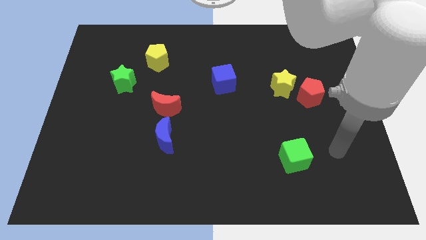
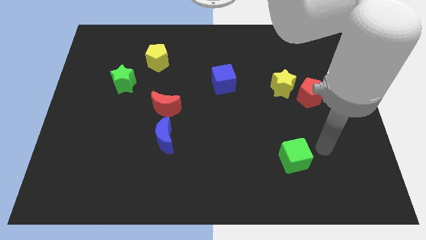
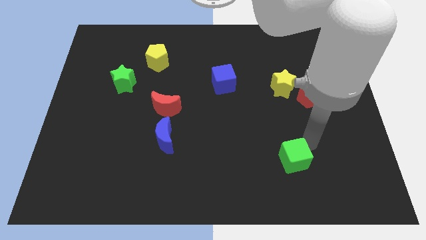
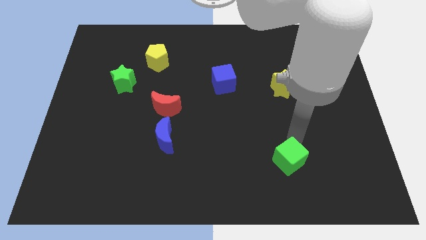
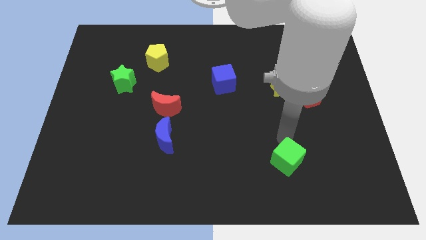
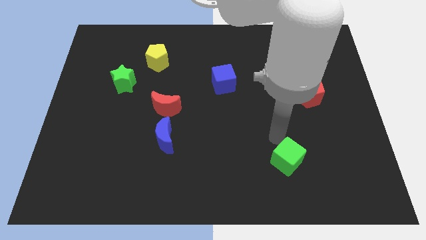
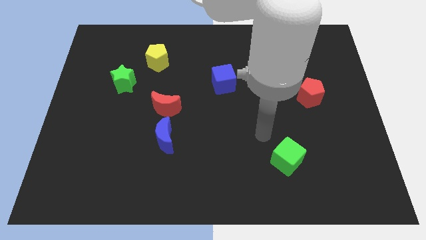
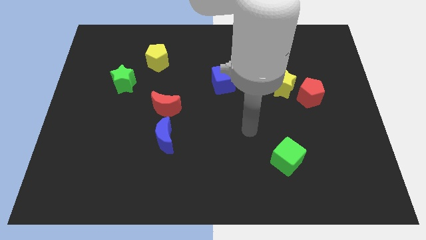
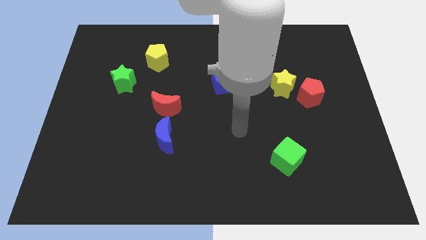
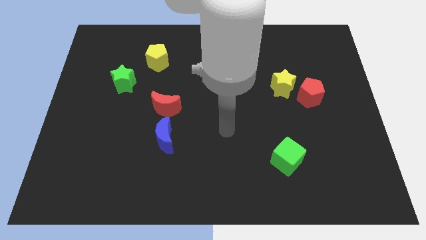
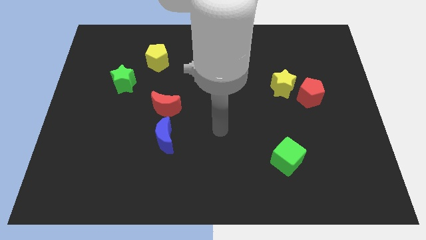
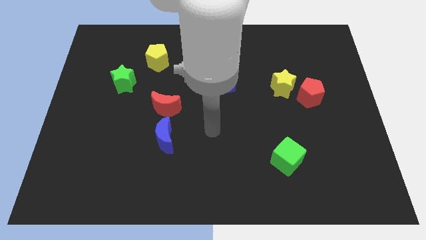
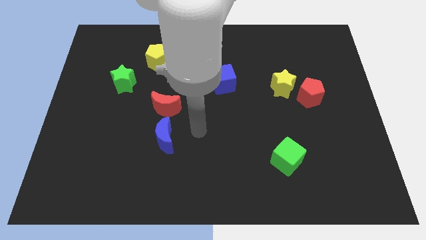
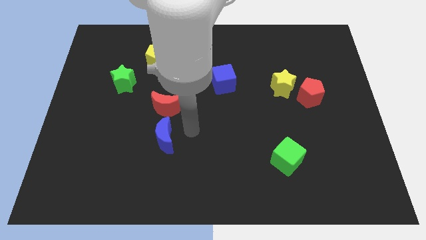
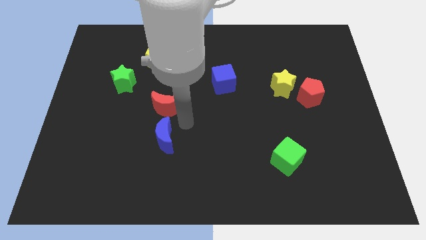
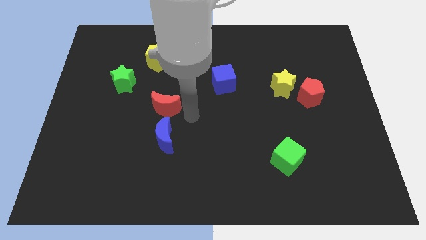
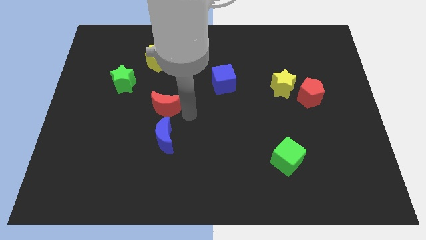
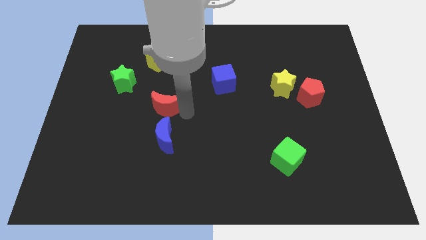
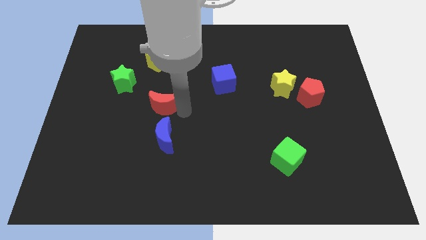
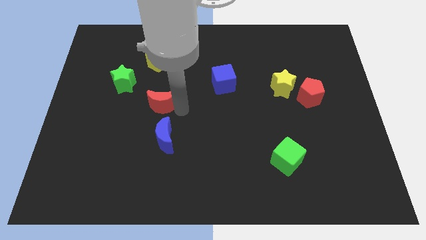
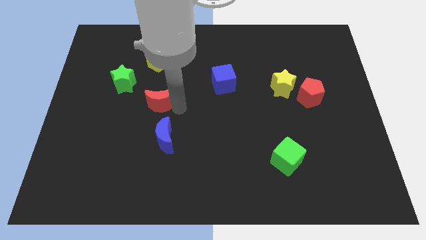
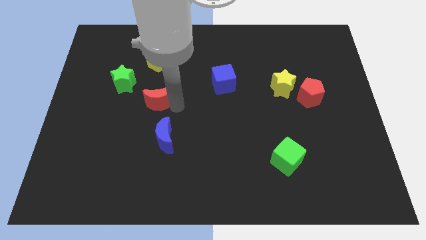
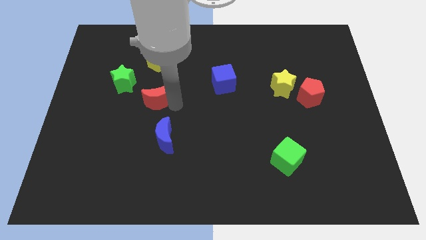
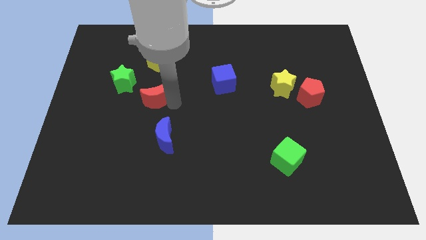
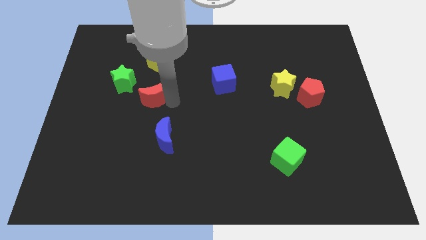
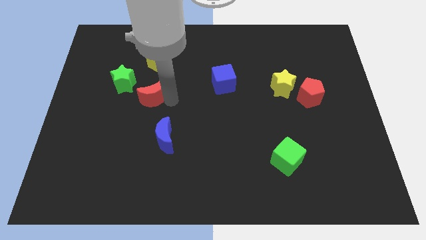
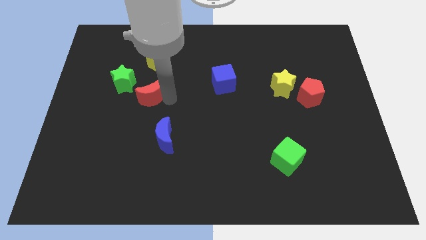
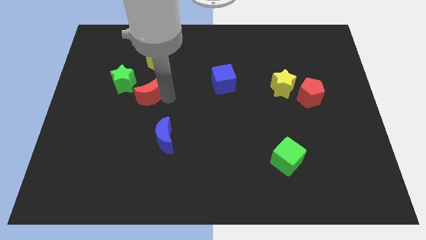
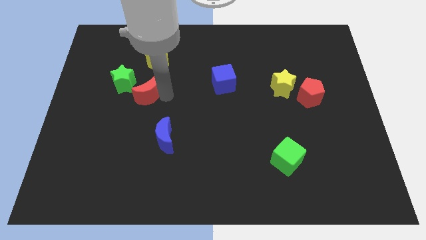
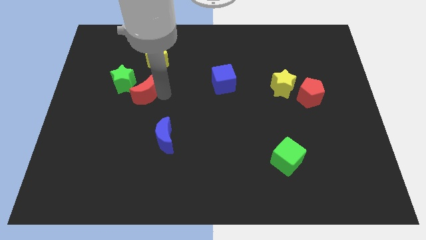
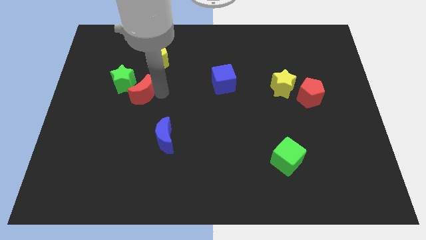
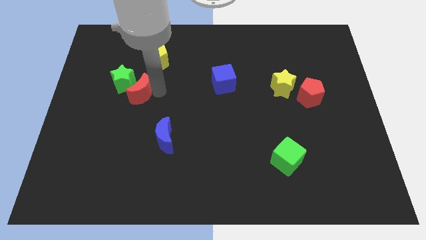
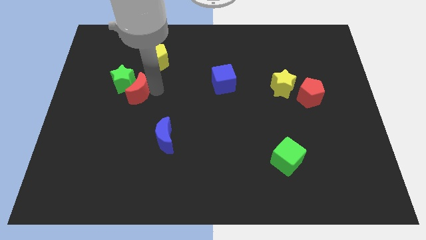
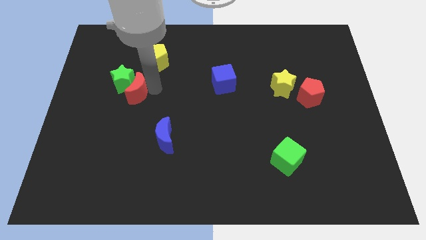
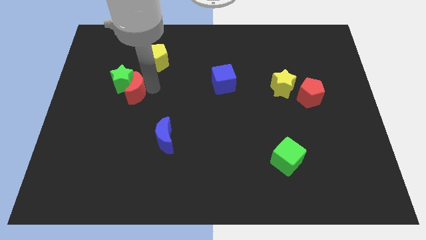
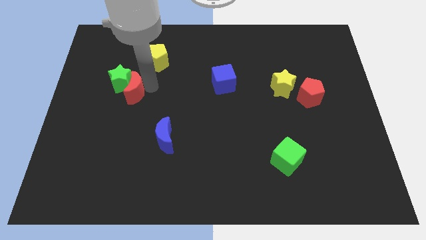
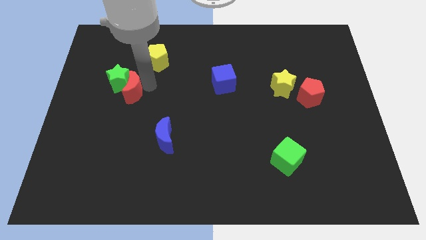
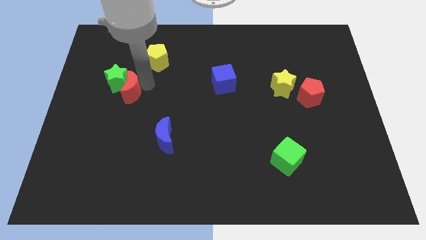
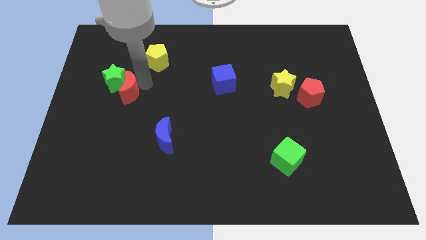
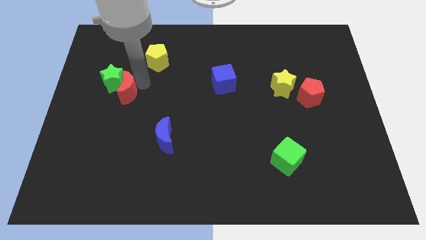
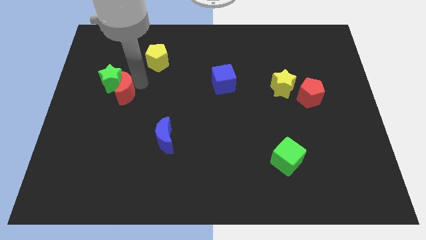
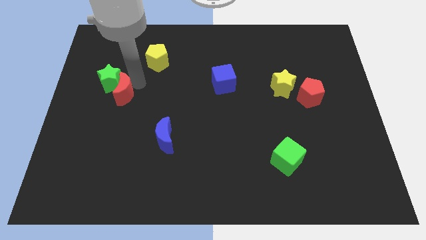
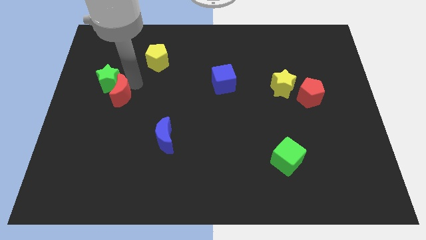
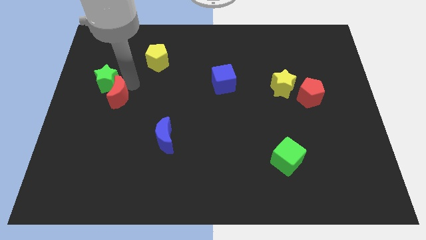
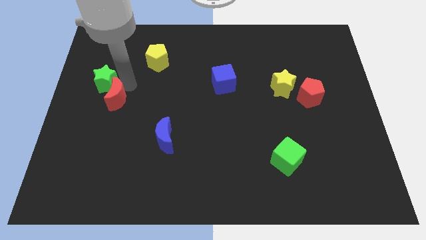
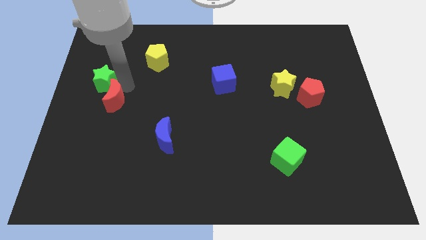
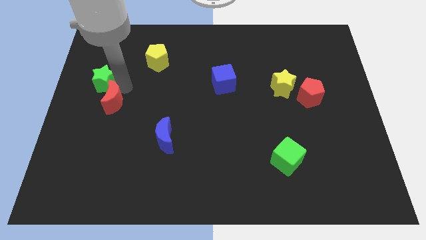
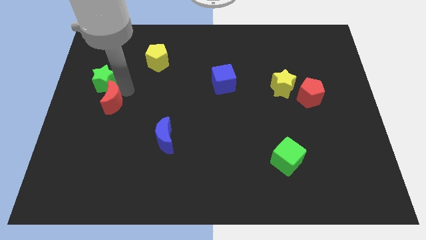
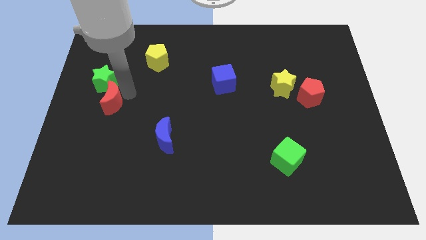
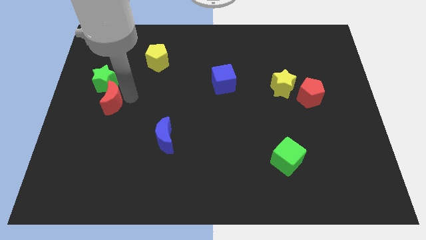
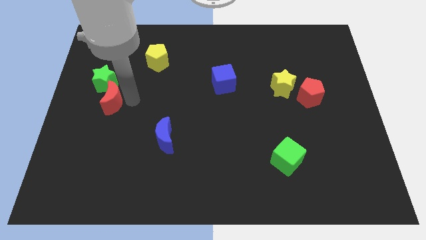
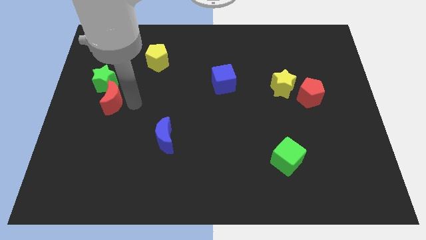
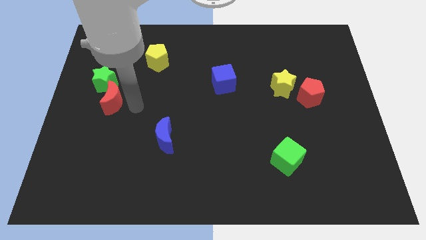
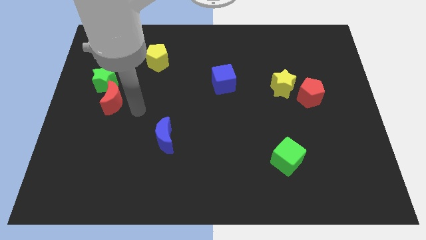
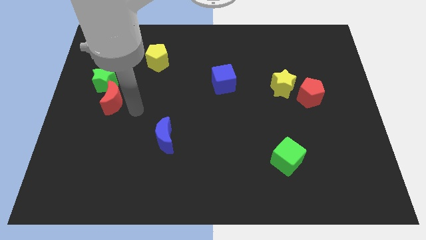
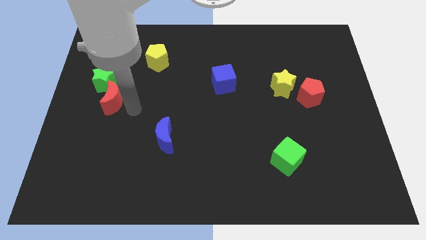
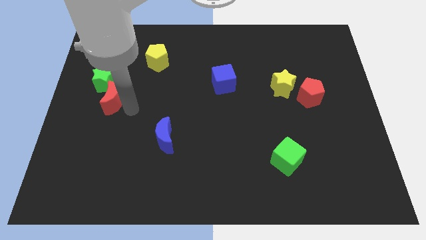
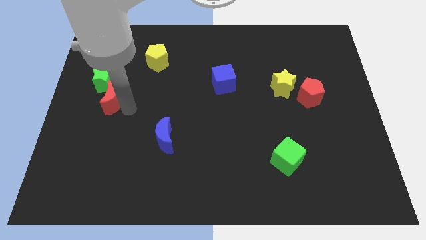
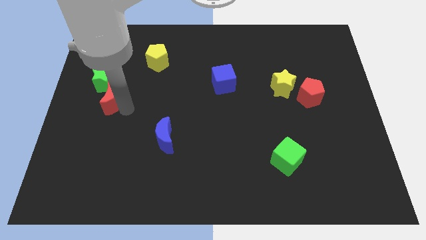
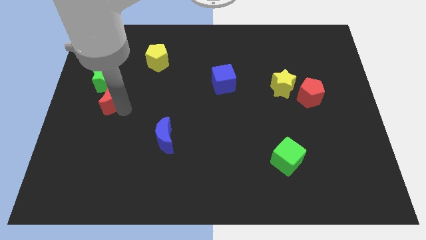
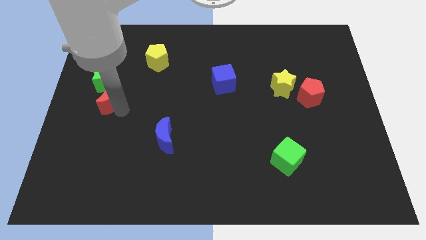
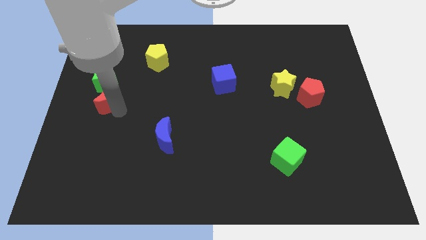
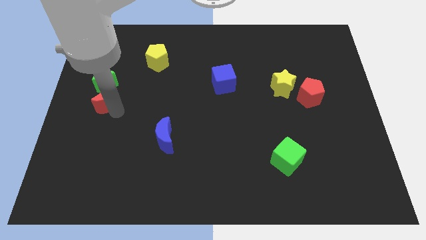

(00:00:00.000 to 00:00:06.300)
slide the red moon to the left side of the board
